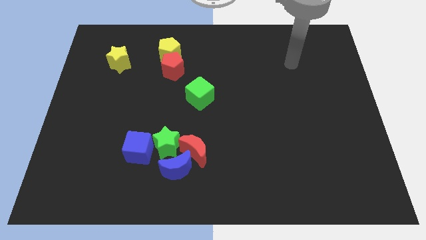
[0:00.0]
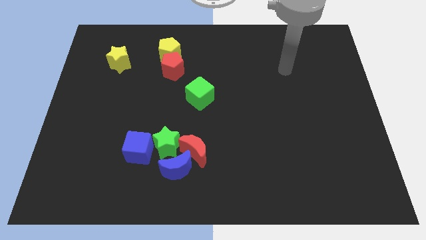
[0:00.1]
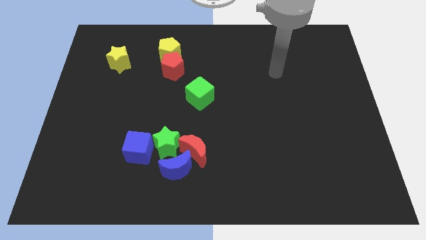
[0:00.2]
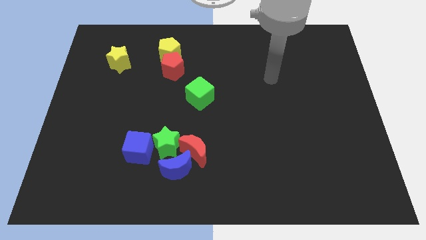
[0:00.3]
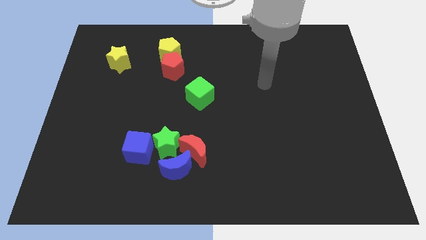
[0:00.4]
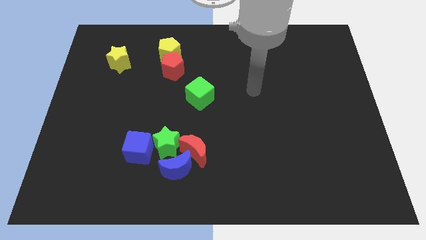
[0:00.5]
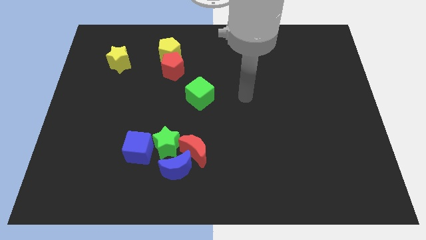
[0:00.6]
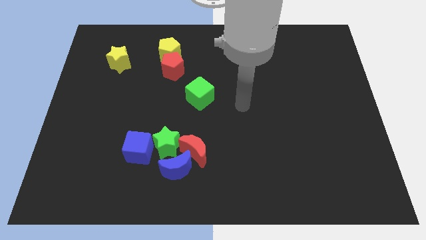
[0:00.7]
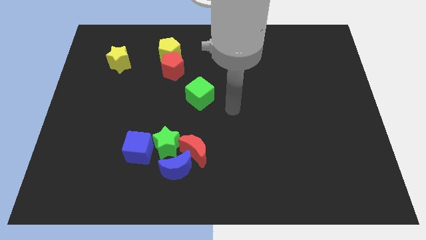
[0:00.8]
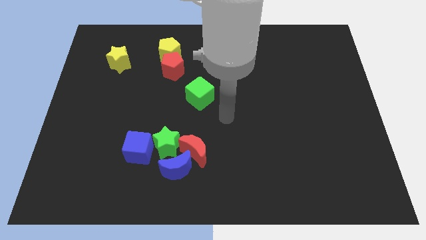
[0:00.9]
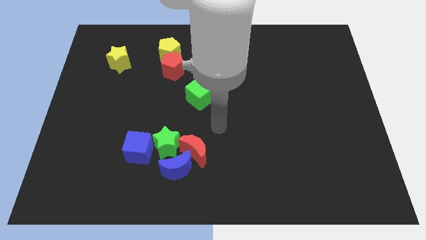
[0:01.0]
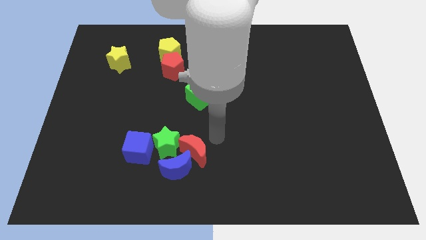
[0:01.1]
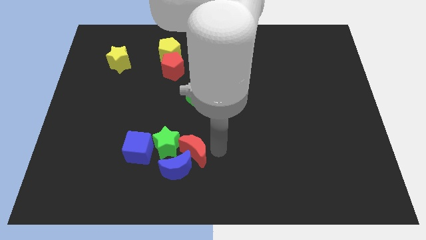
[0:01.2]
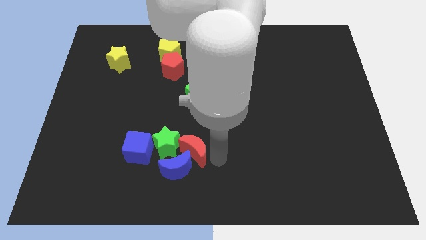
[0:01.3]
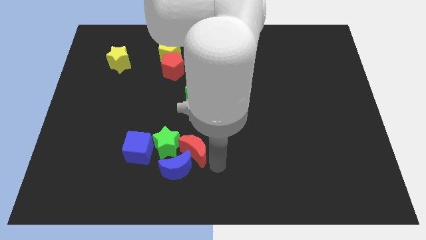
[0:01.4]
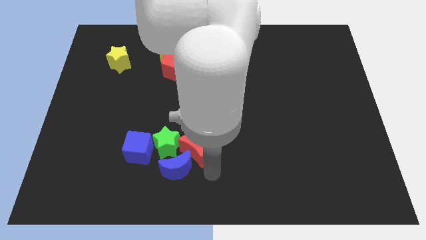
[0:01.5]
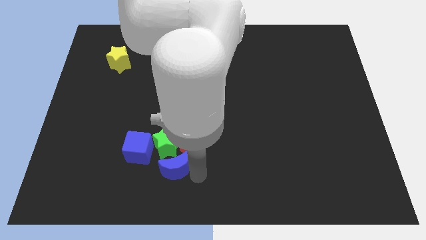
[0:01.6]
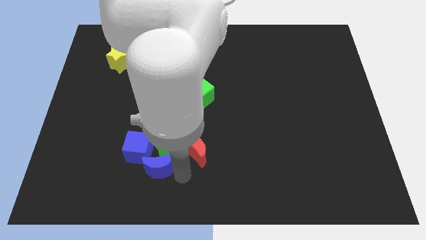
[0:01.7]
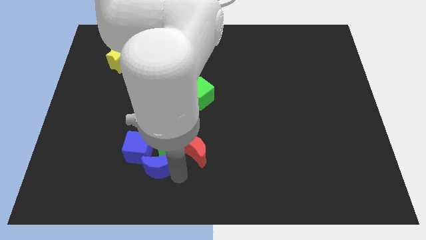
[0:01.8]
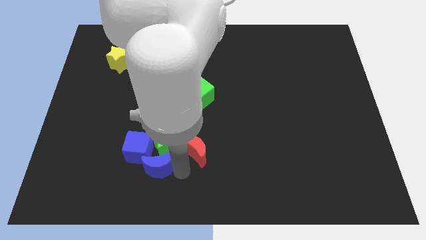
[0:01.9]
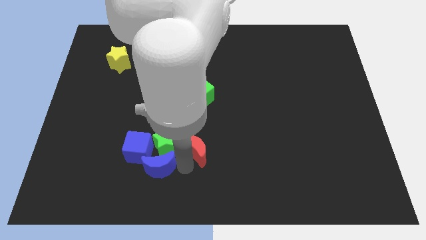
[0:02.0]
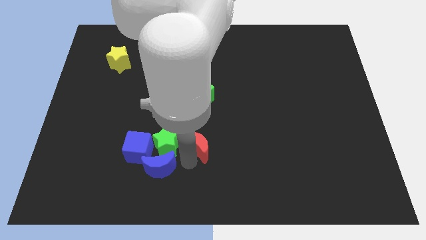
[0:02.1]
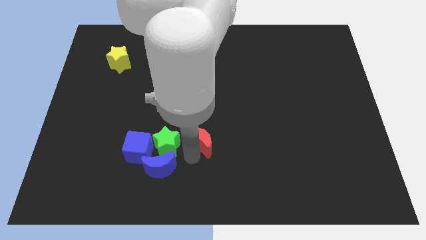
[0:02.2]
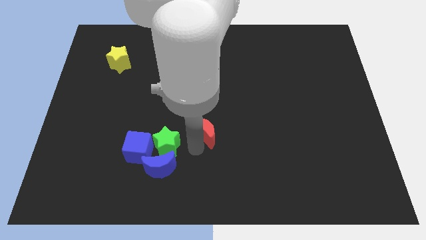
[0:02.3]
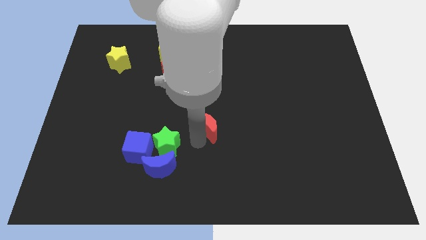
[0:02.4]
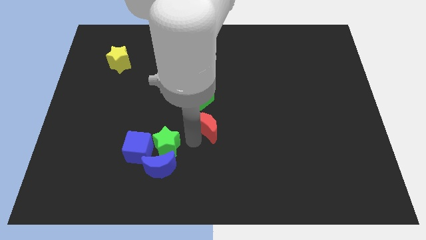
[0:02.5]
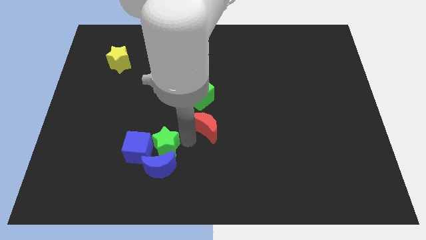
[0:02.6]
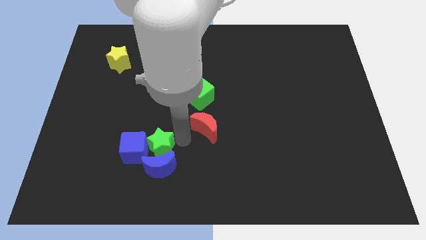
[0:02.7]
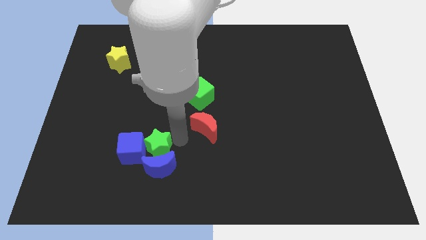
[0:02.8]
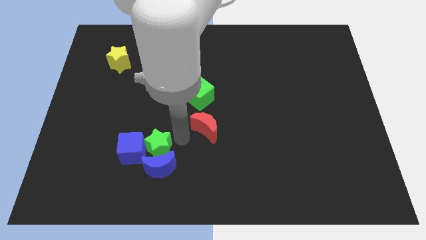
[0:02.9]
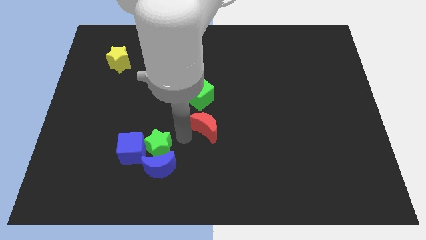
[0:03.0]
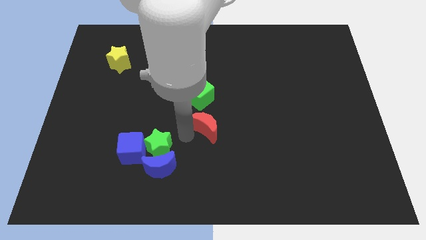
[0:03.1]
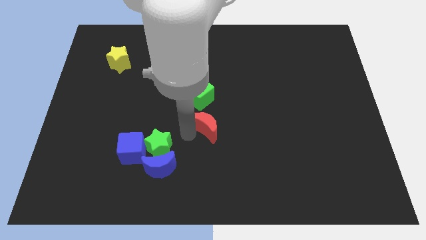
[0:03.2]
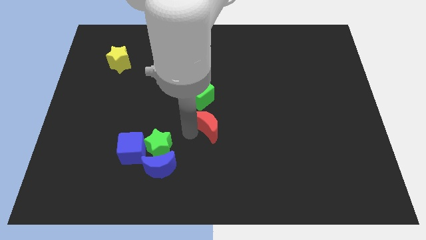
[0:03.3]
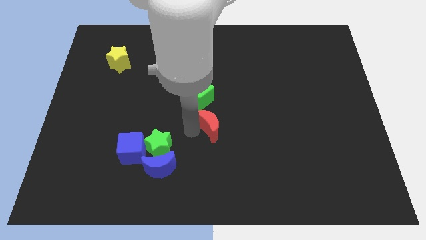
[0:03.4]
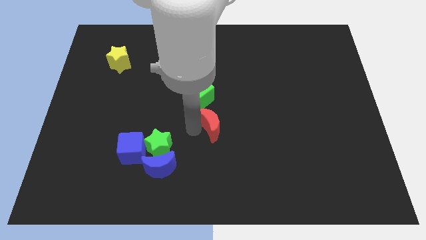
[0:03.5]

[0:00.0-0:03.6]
slide the red moon a little bit upwards and right diagonally

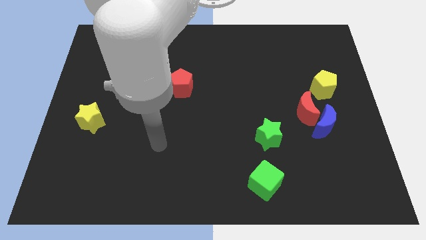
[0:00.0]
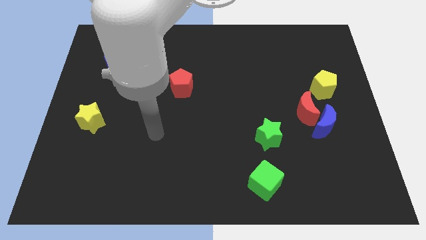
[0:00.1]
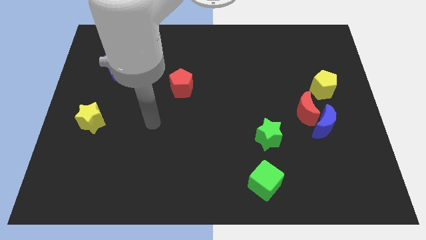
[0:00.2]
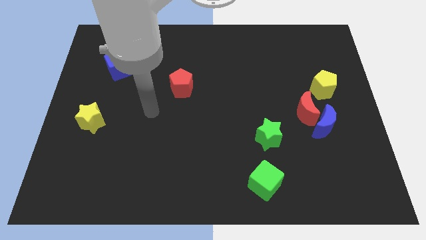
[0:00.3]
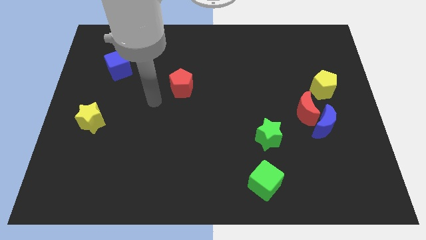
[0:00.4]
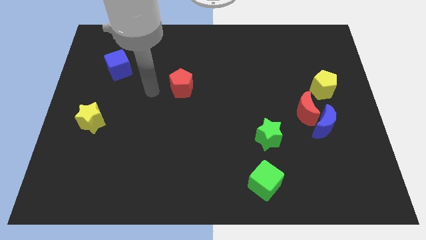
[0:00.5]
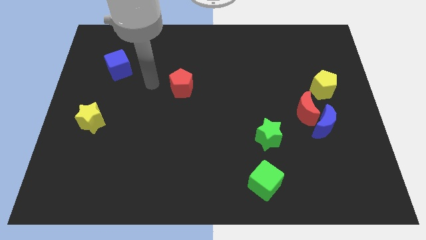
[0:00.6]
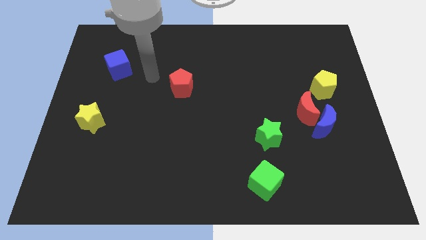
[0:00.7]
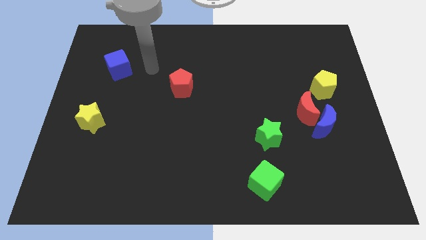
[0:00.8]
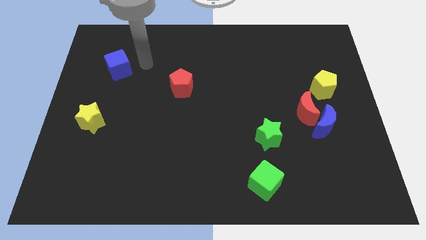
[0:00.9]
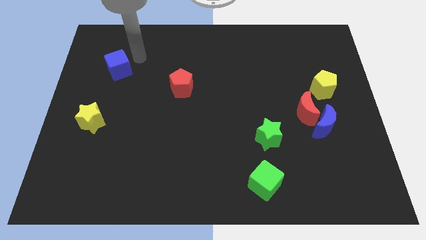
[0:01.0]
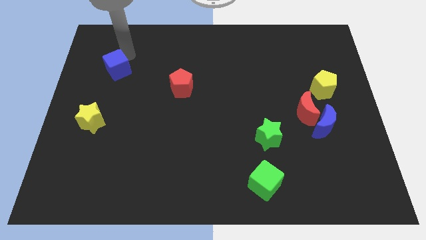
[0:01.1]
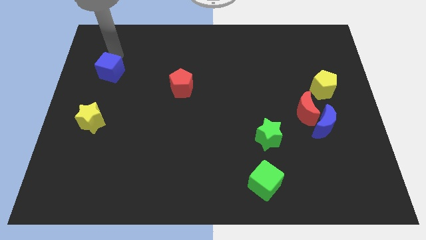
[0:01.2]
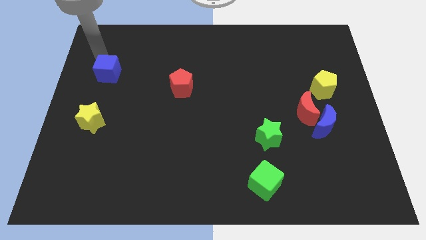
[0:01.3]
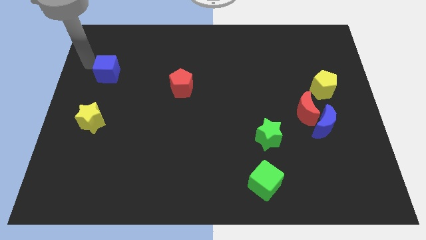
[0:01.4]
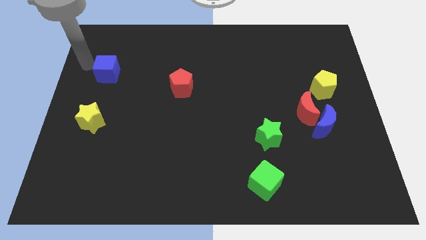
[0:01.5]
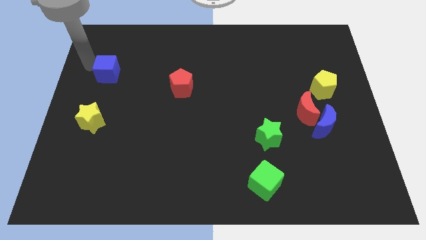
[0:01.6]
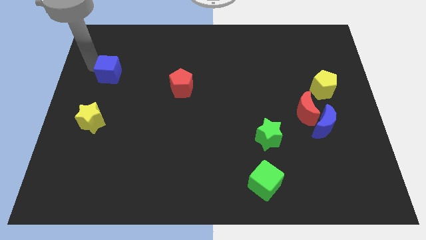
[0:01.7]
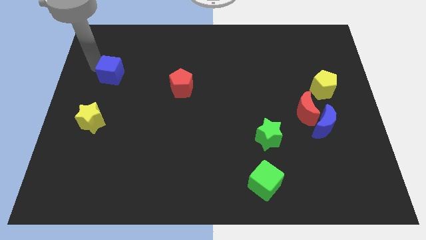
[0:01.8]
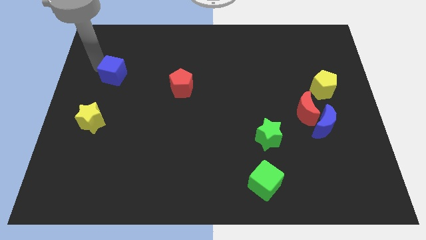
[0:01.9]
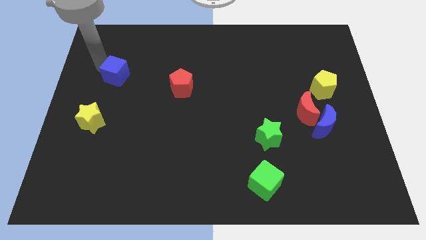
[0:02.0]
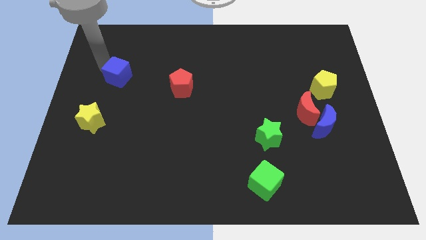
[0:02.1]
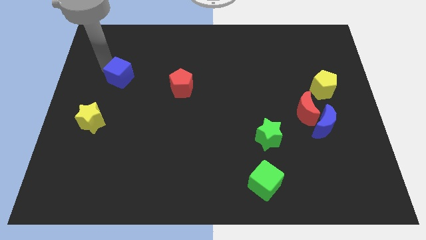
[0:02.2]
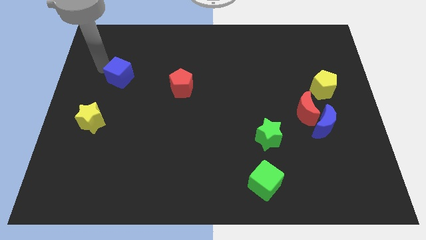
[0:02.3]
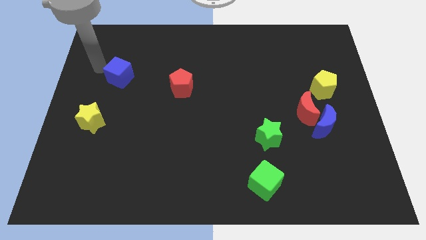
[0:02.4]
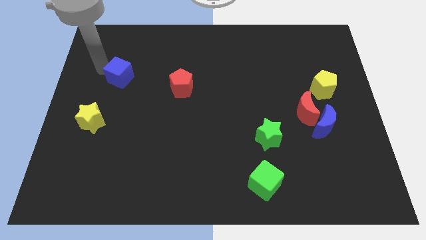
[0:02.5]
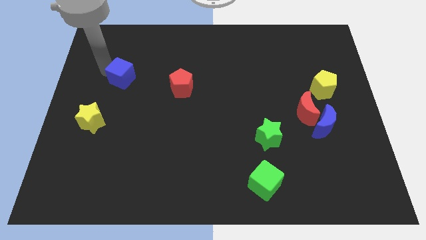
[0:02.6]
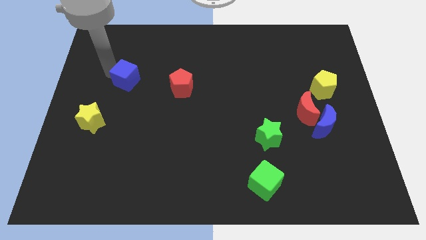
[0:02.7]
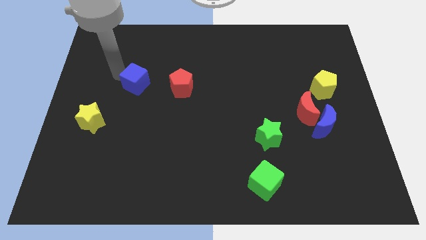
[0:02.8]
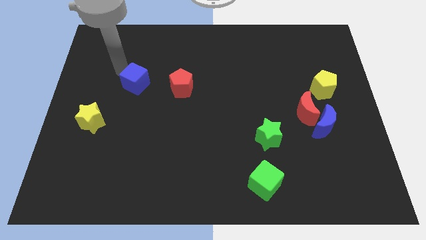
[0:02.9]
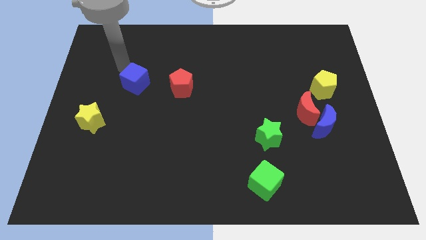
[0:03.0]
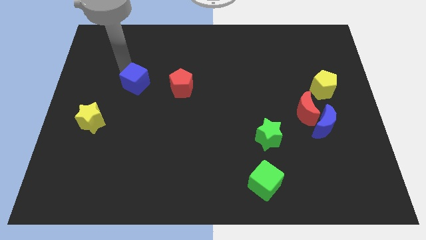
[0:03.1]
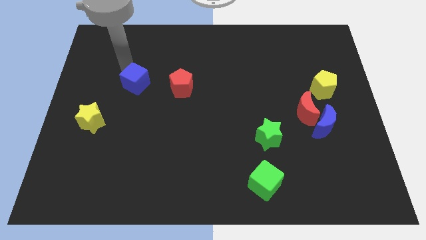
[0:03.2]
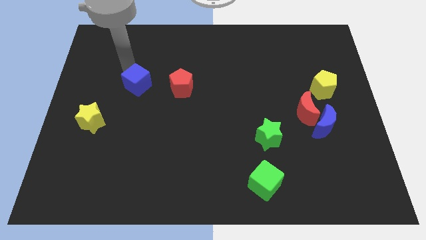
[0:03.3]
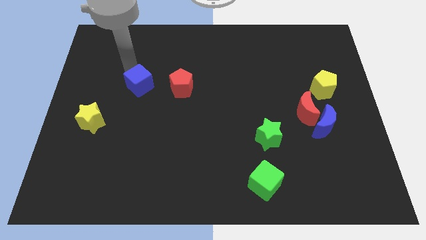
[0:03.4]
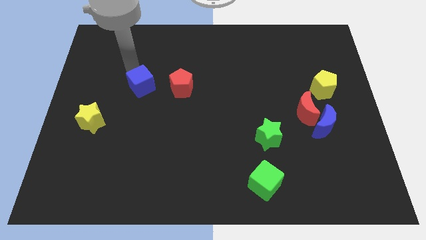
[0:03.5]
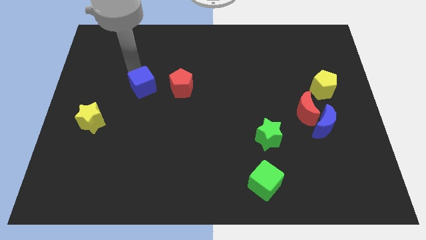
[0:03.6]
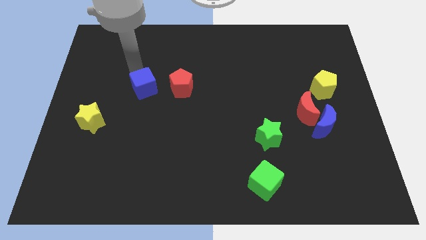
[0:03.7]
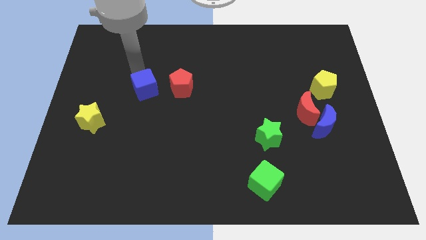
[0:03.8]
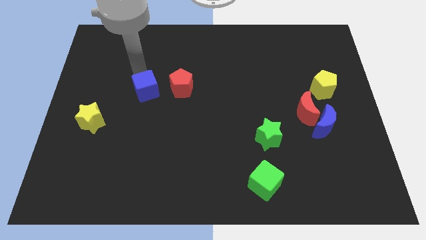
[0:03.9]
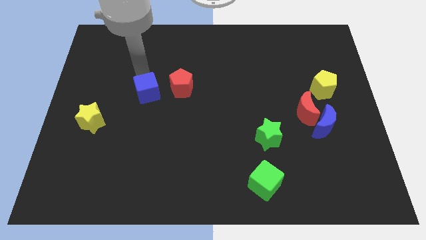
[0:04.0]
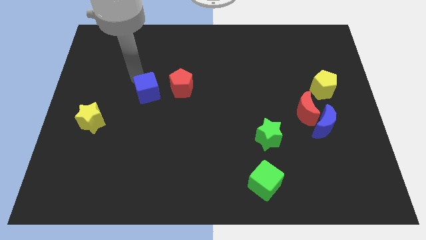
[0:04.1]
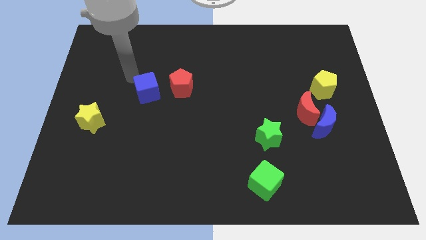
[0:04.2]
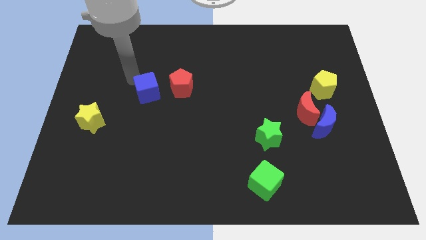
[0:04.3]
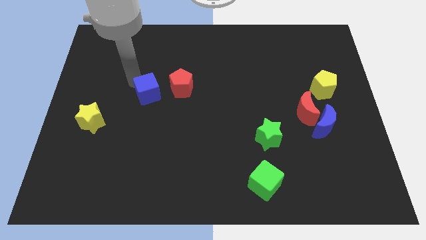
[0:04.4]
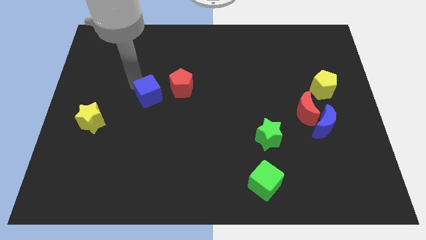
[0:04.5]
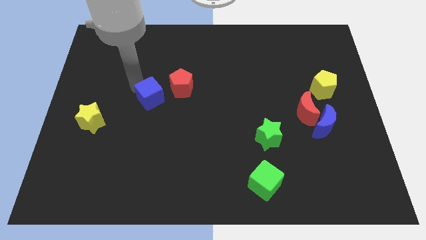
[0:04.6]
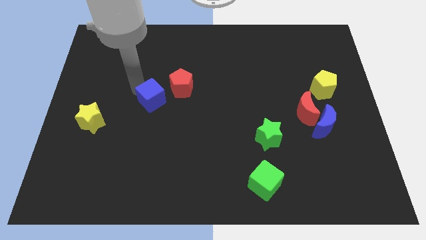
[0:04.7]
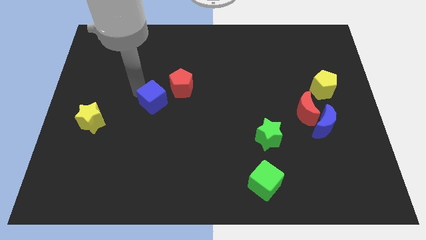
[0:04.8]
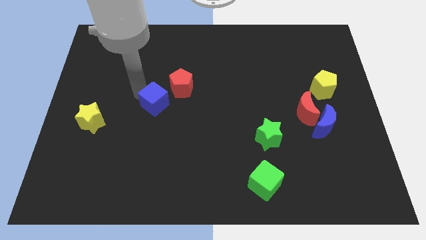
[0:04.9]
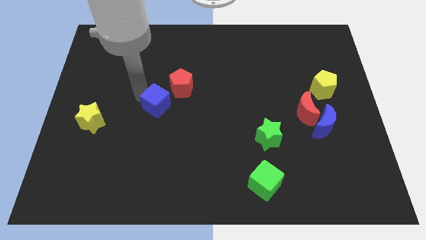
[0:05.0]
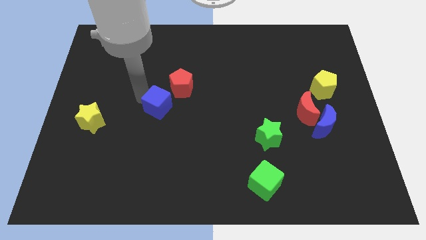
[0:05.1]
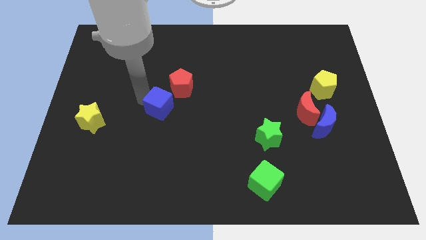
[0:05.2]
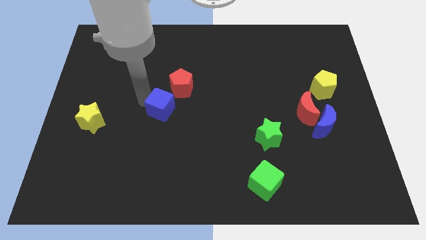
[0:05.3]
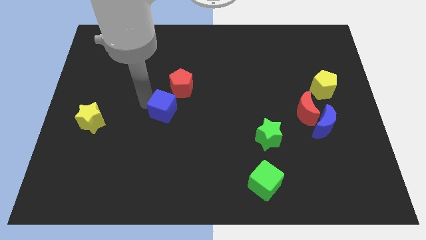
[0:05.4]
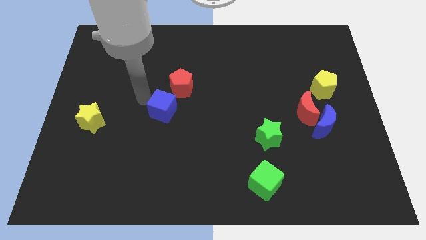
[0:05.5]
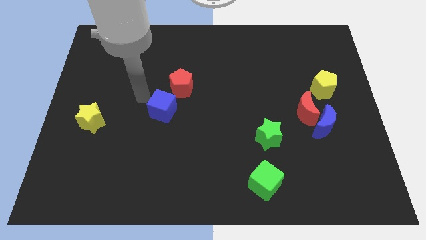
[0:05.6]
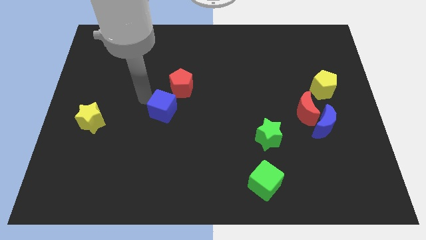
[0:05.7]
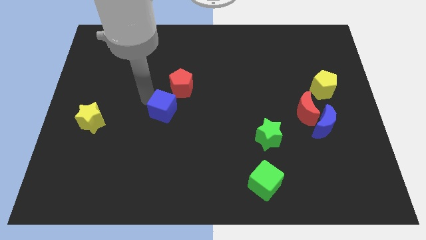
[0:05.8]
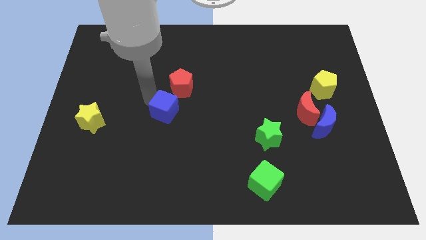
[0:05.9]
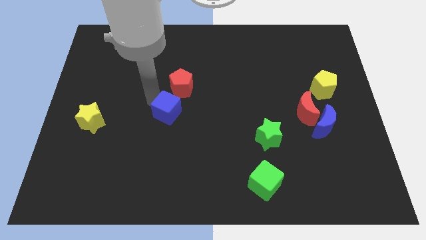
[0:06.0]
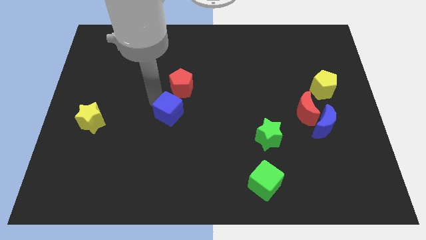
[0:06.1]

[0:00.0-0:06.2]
slide the blue cube down and then right
